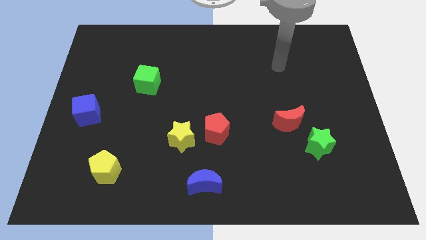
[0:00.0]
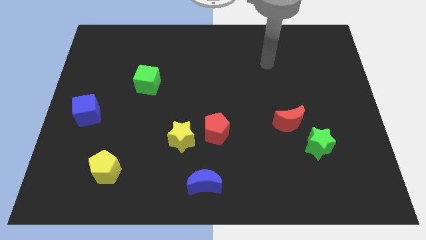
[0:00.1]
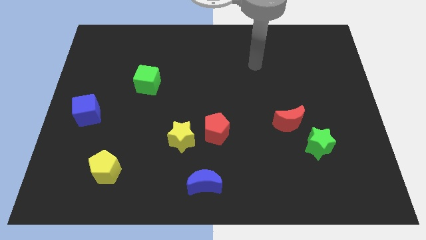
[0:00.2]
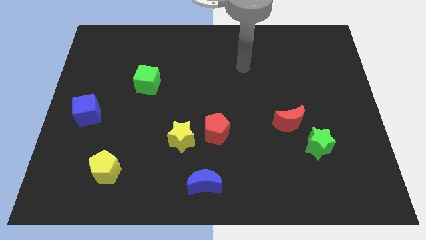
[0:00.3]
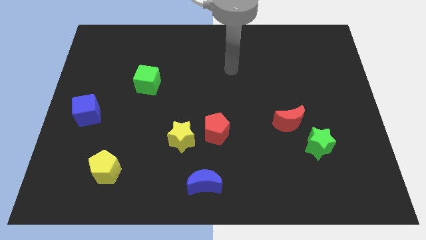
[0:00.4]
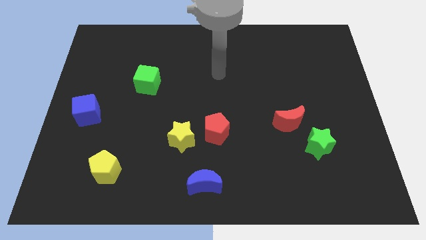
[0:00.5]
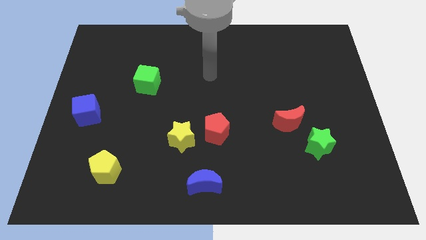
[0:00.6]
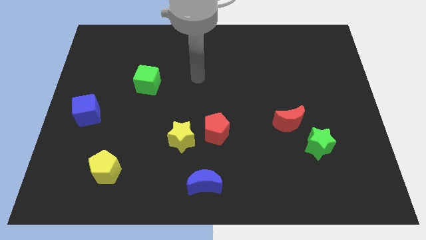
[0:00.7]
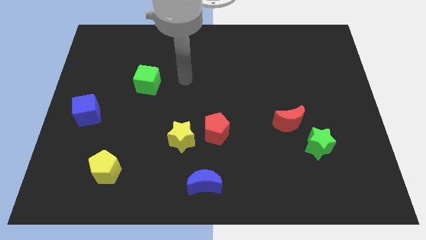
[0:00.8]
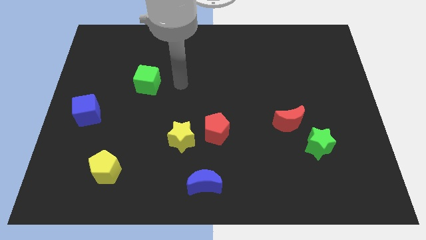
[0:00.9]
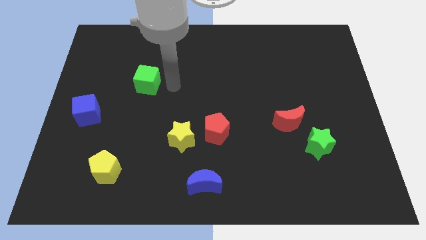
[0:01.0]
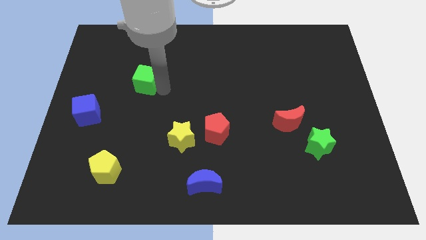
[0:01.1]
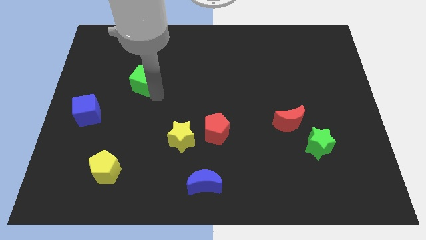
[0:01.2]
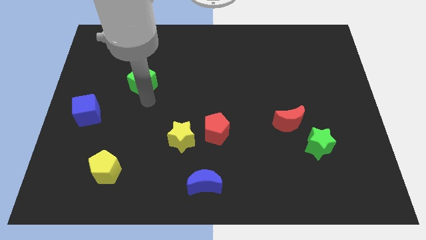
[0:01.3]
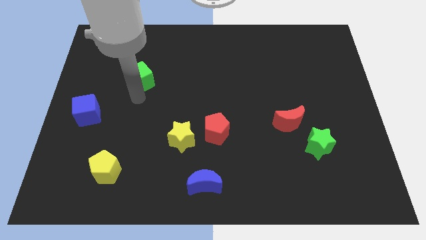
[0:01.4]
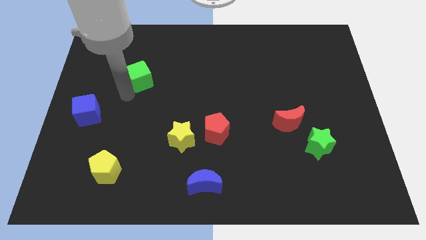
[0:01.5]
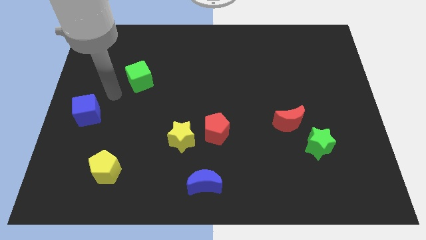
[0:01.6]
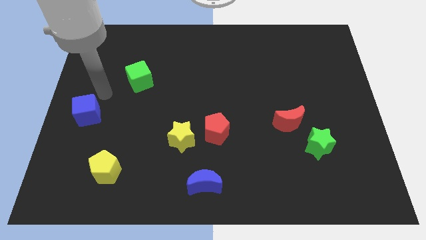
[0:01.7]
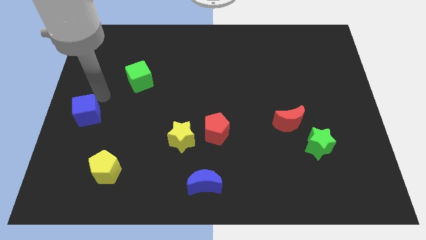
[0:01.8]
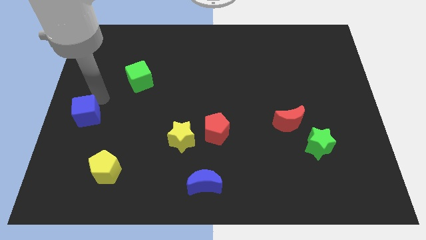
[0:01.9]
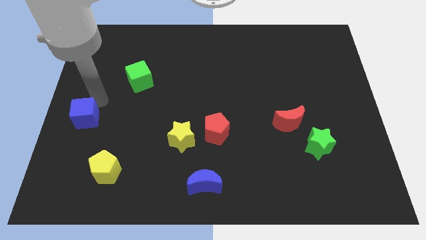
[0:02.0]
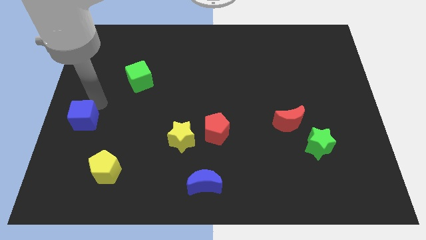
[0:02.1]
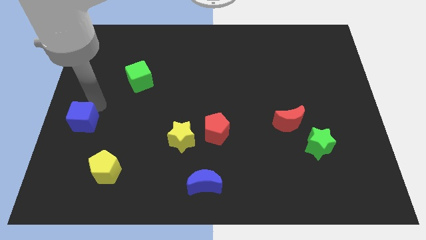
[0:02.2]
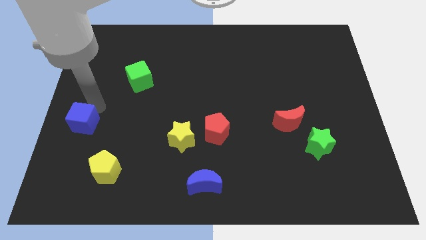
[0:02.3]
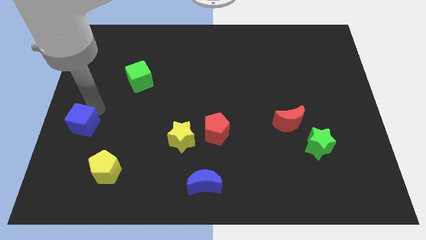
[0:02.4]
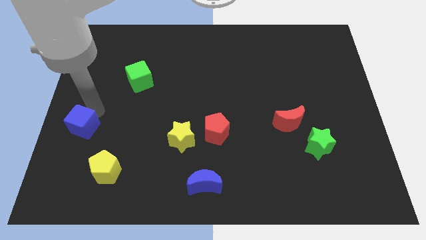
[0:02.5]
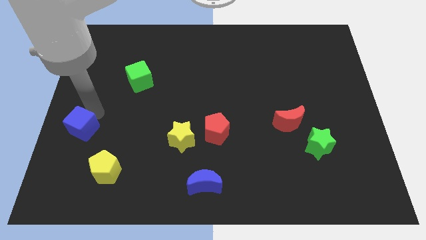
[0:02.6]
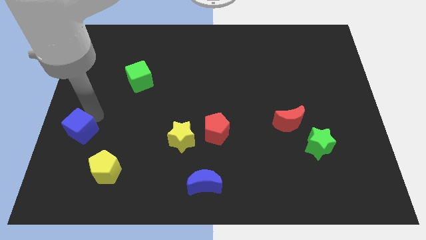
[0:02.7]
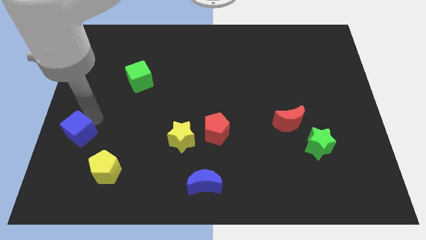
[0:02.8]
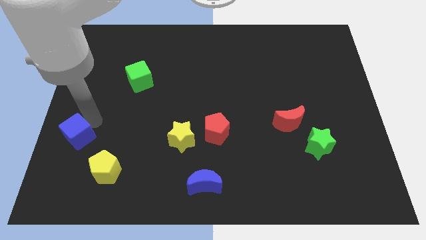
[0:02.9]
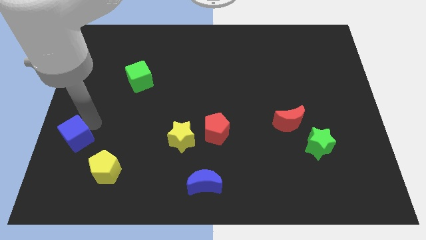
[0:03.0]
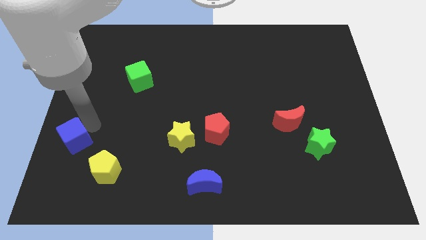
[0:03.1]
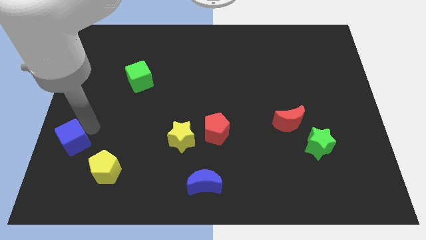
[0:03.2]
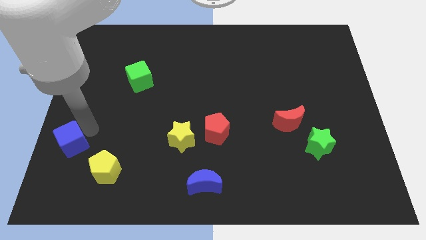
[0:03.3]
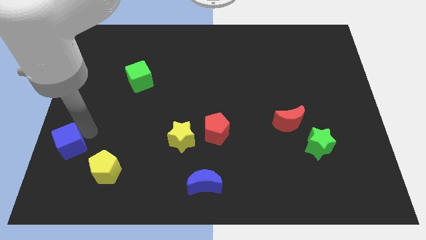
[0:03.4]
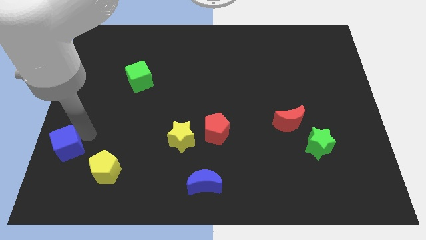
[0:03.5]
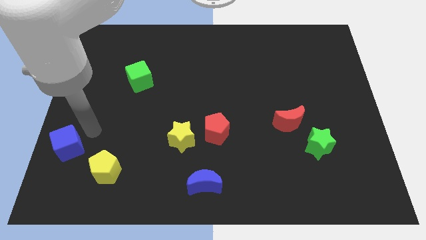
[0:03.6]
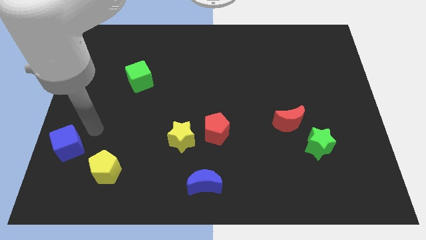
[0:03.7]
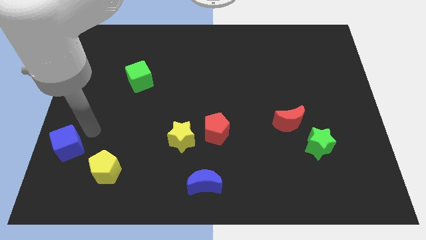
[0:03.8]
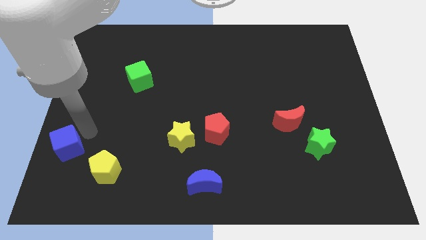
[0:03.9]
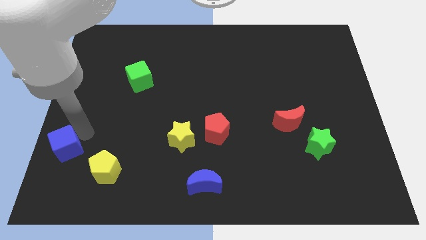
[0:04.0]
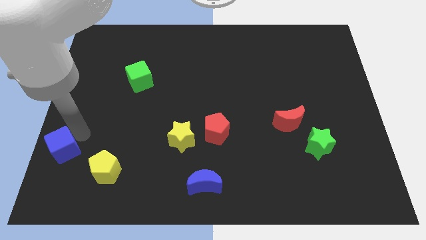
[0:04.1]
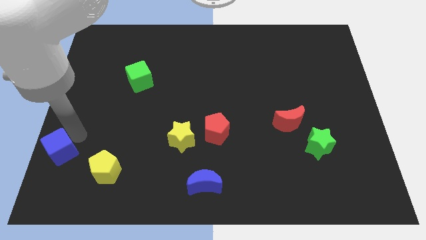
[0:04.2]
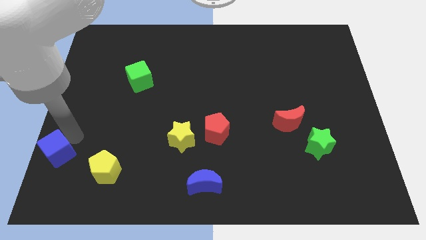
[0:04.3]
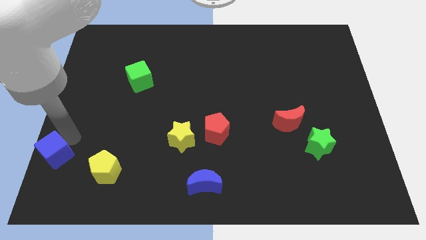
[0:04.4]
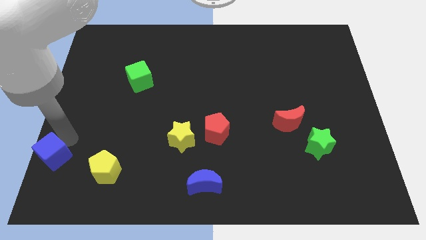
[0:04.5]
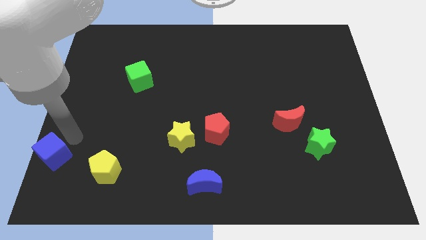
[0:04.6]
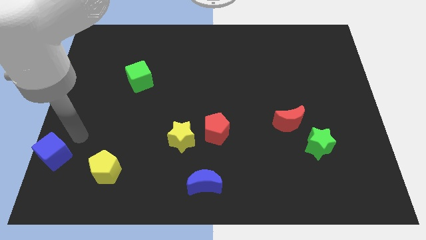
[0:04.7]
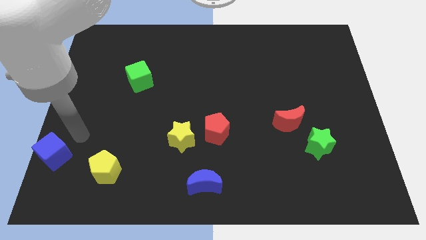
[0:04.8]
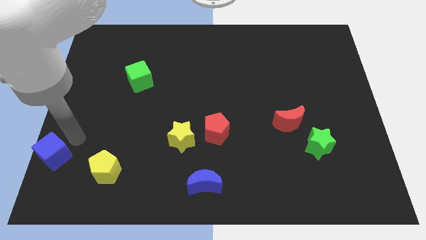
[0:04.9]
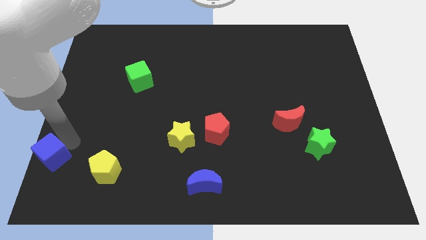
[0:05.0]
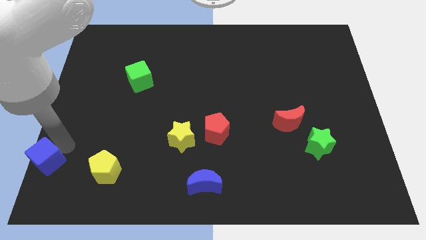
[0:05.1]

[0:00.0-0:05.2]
put the blue cube to the bottom left of the board
